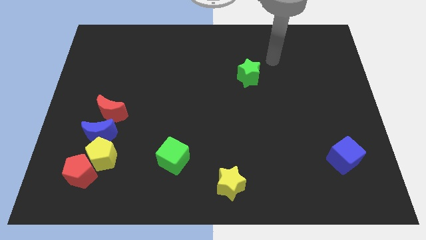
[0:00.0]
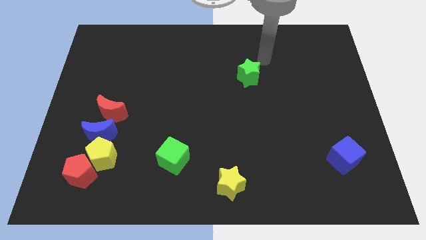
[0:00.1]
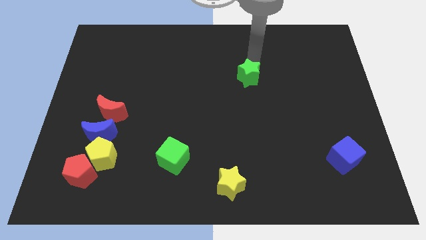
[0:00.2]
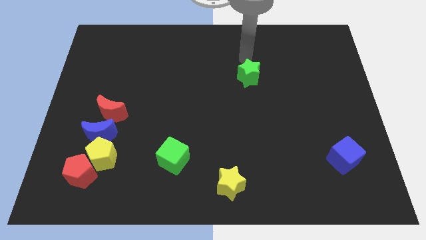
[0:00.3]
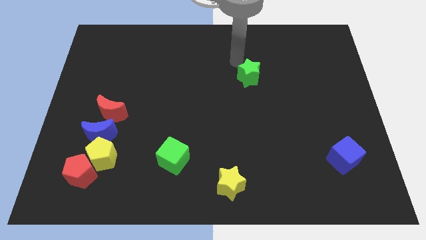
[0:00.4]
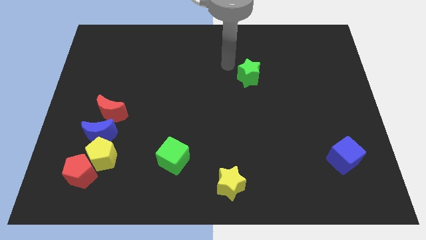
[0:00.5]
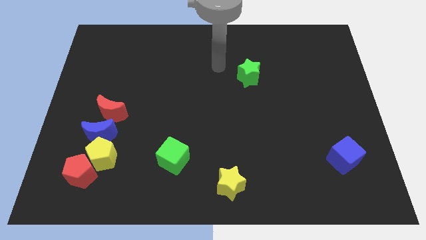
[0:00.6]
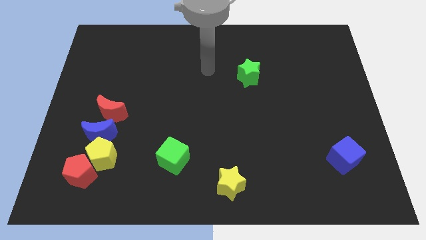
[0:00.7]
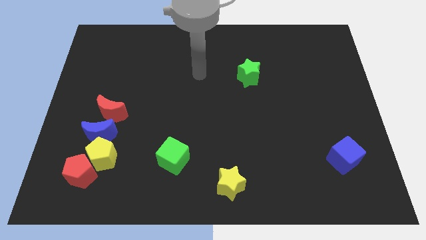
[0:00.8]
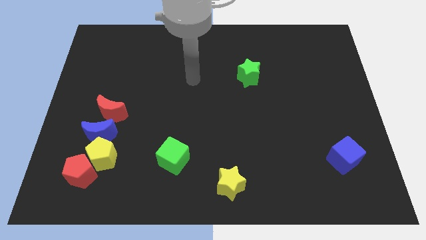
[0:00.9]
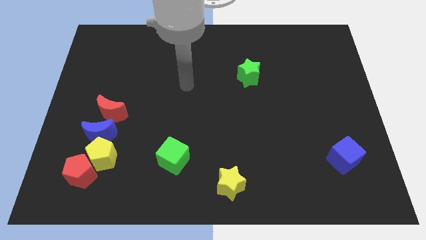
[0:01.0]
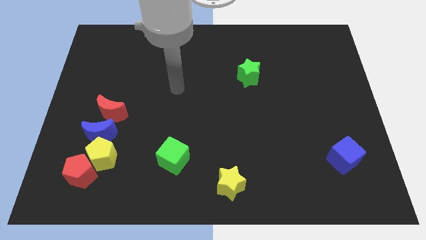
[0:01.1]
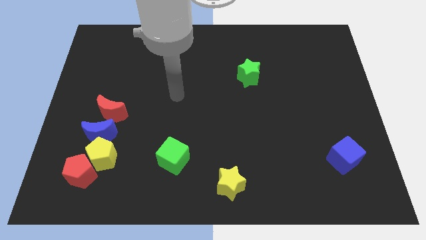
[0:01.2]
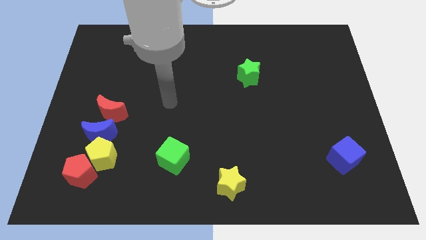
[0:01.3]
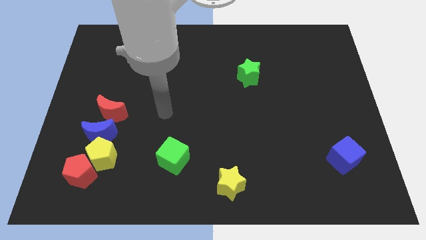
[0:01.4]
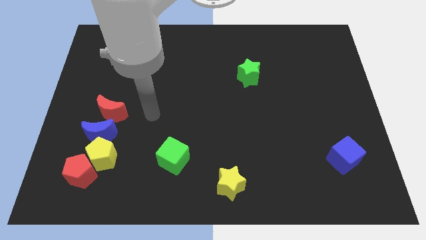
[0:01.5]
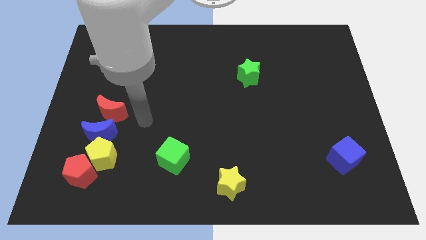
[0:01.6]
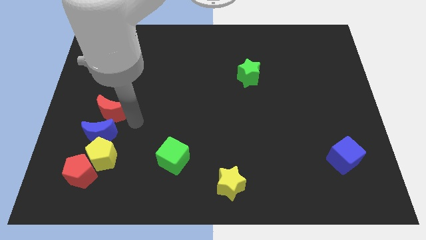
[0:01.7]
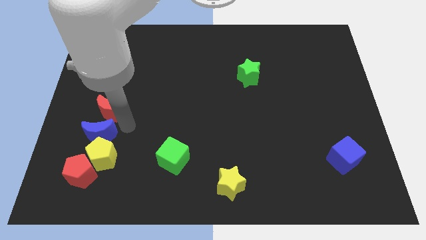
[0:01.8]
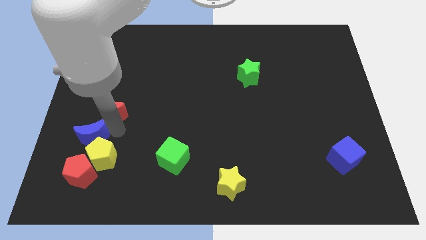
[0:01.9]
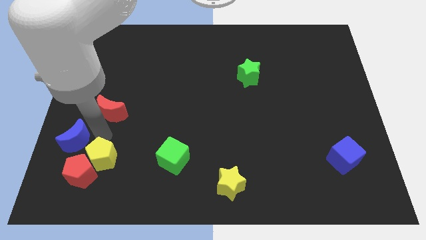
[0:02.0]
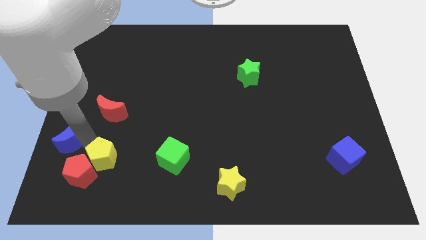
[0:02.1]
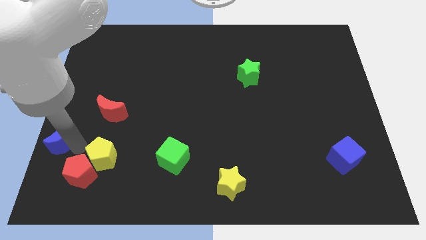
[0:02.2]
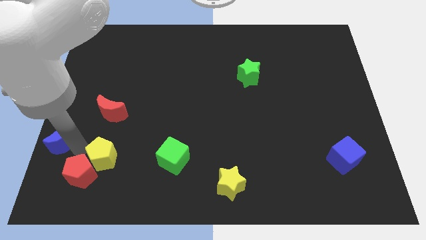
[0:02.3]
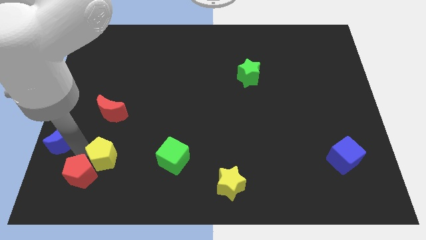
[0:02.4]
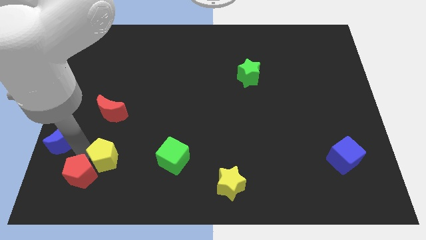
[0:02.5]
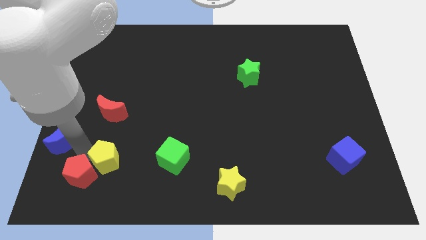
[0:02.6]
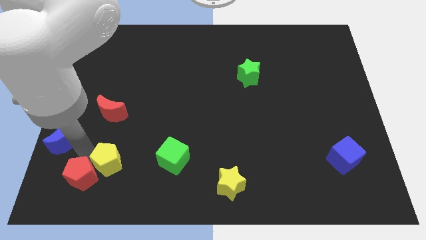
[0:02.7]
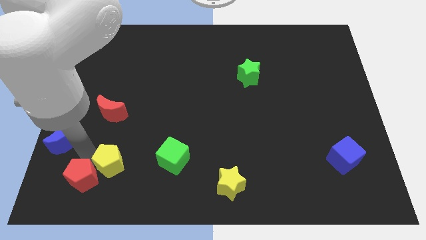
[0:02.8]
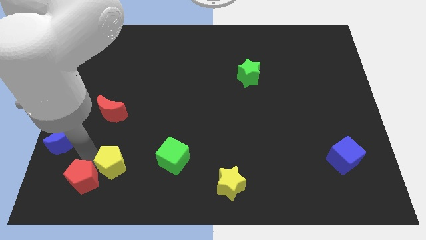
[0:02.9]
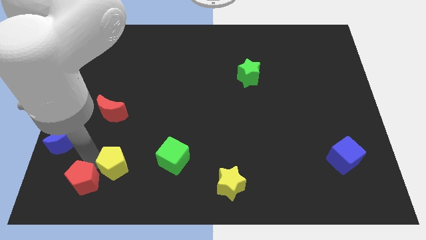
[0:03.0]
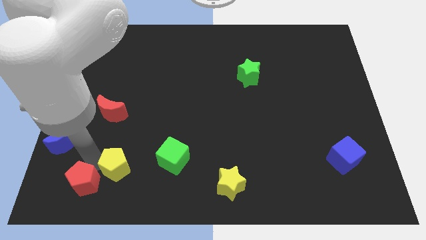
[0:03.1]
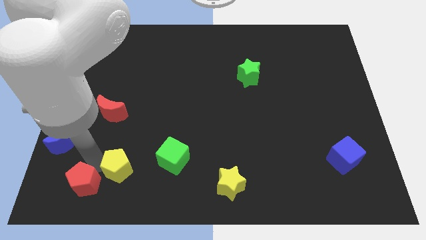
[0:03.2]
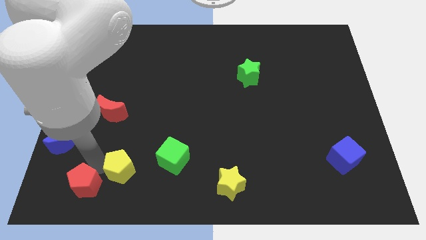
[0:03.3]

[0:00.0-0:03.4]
separate the yellow pentagon from the red pentagon and blue moon

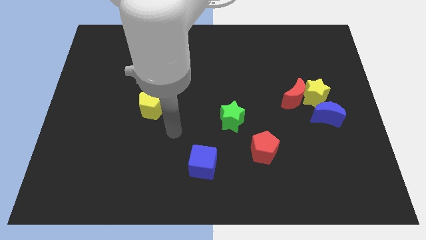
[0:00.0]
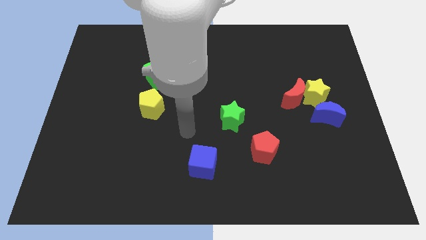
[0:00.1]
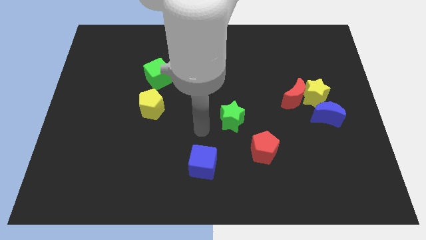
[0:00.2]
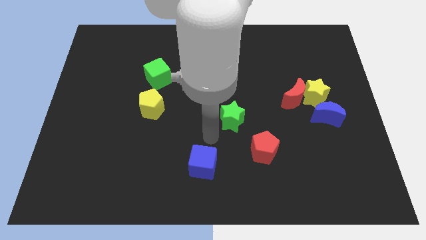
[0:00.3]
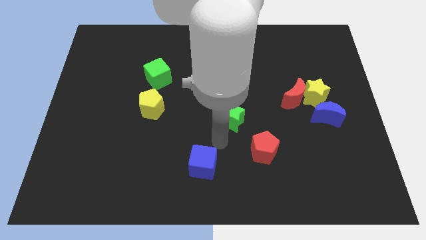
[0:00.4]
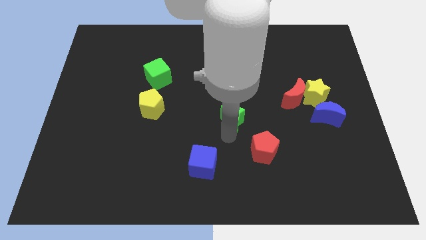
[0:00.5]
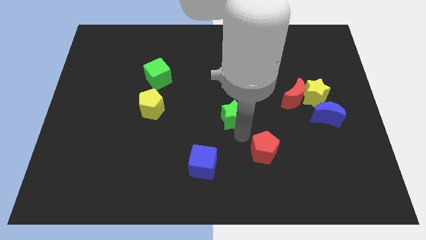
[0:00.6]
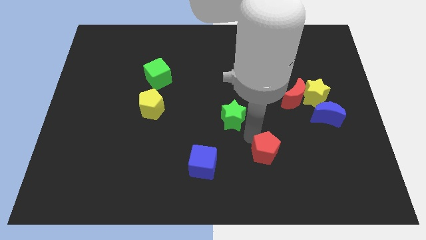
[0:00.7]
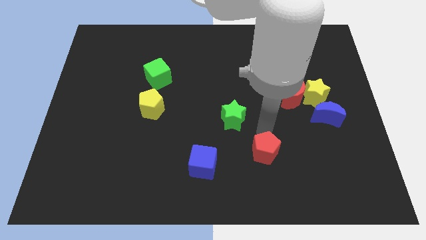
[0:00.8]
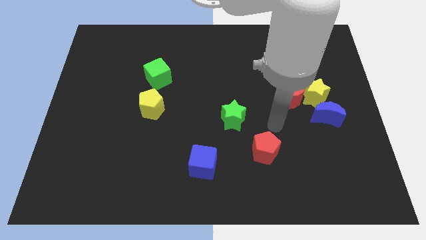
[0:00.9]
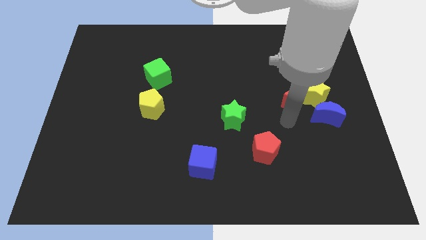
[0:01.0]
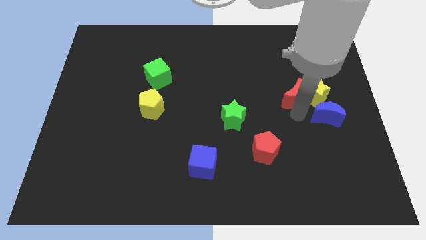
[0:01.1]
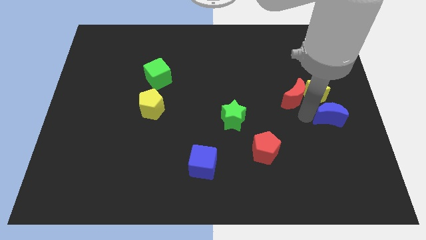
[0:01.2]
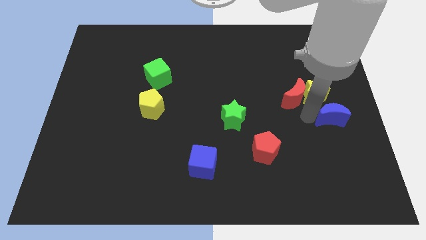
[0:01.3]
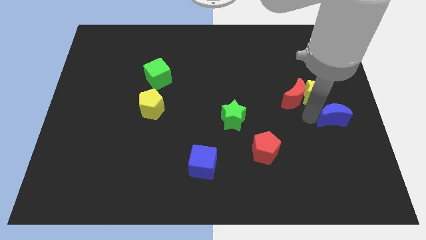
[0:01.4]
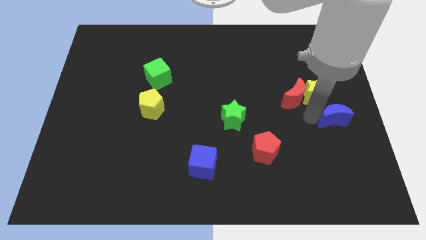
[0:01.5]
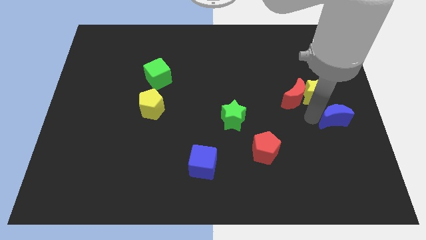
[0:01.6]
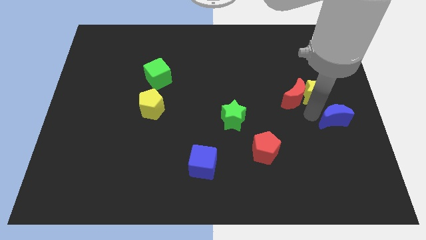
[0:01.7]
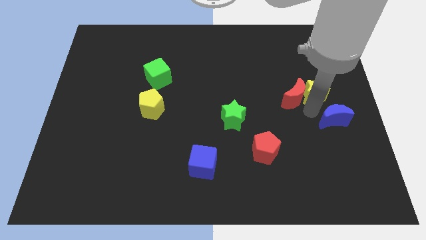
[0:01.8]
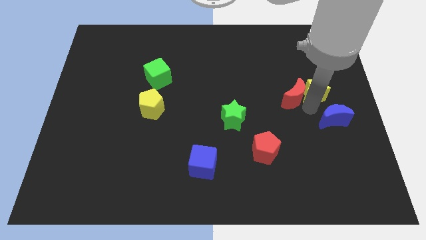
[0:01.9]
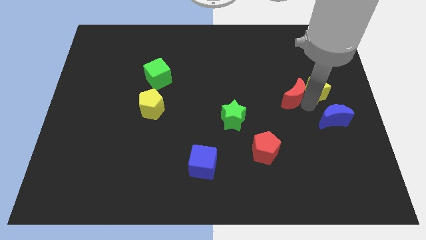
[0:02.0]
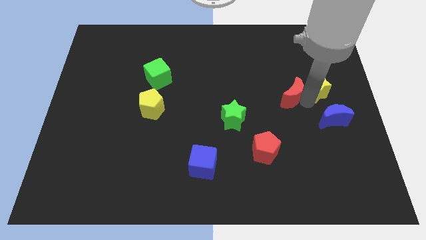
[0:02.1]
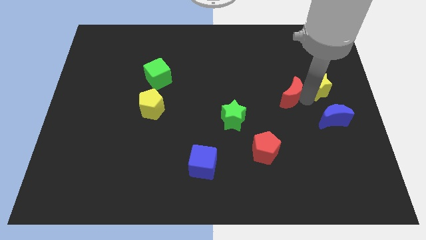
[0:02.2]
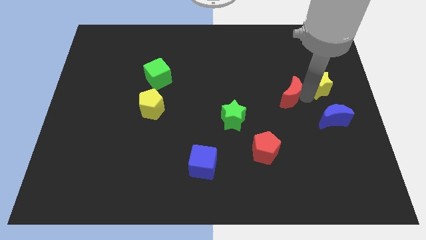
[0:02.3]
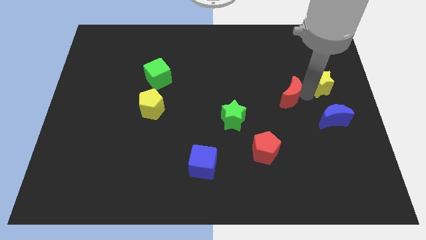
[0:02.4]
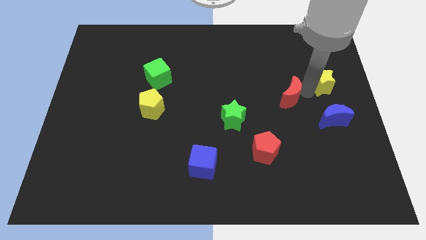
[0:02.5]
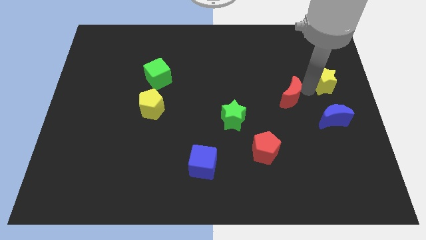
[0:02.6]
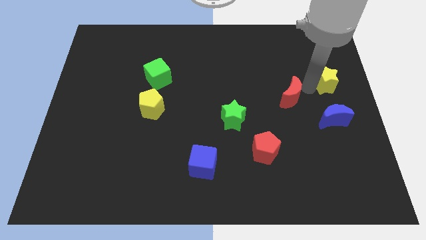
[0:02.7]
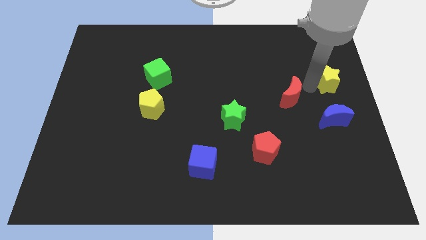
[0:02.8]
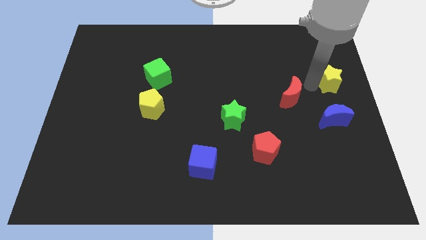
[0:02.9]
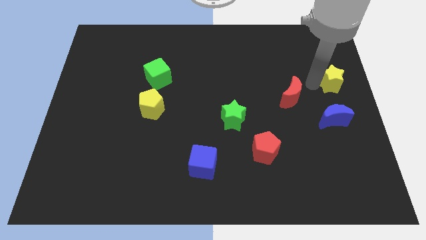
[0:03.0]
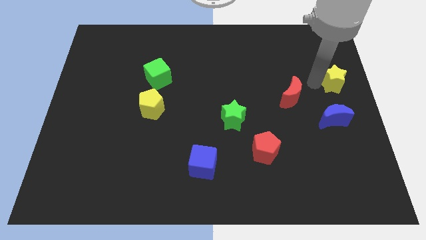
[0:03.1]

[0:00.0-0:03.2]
move the yellow star away from the red moon and blue moon

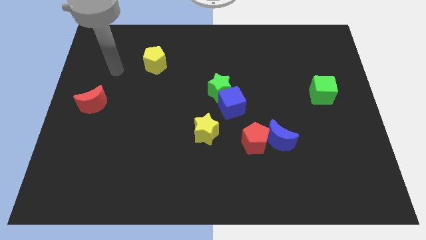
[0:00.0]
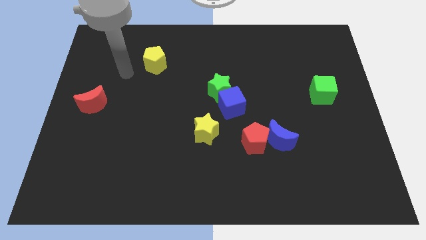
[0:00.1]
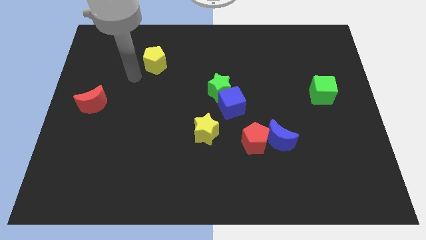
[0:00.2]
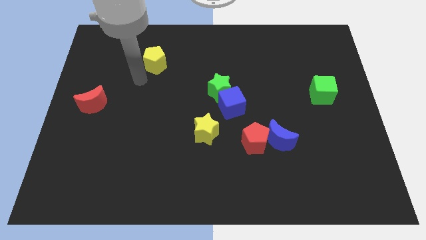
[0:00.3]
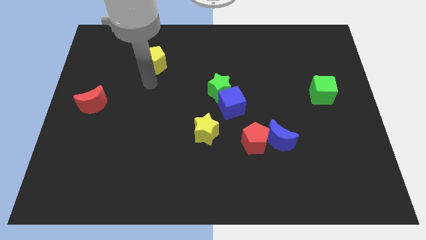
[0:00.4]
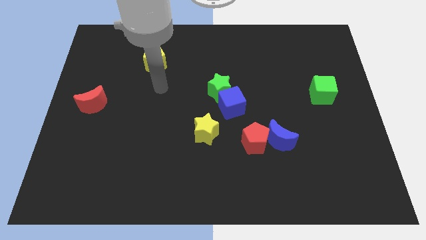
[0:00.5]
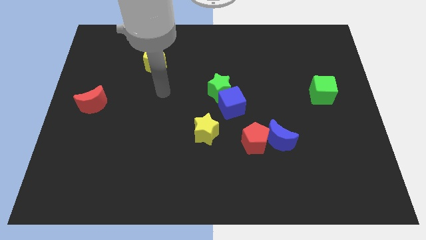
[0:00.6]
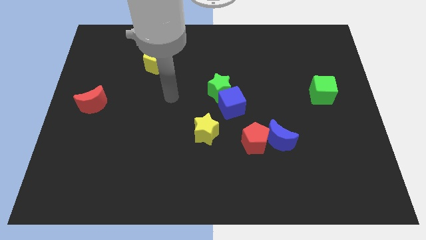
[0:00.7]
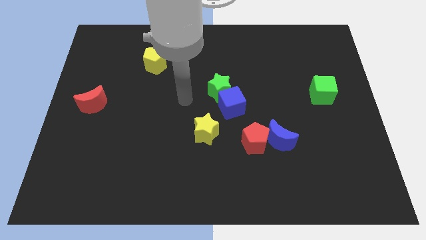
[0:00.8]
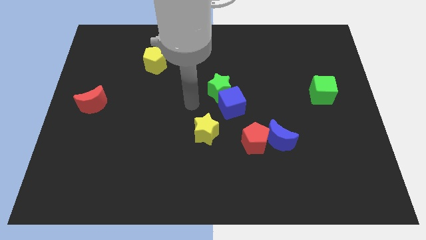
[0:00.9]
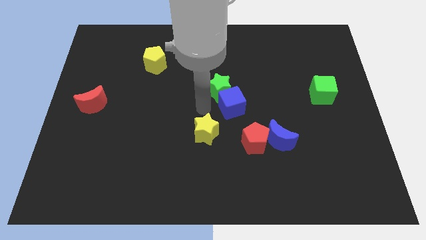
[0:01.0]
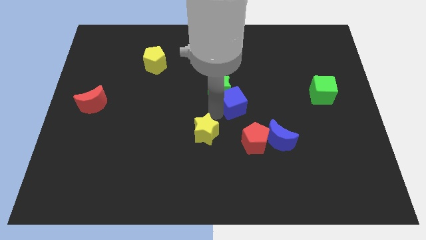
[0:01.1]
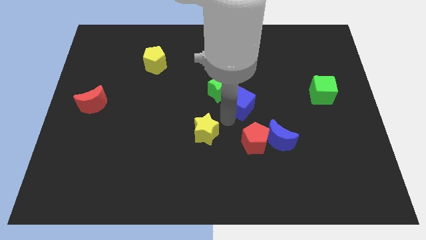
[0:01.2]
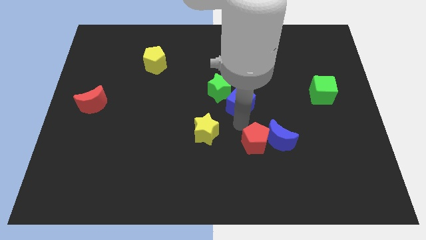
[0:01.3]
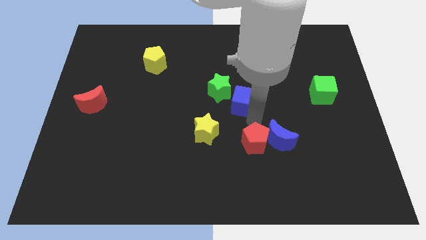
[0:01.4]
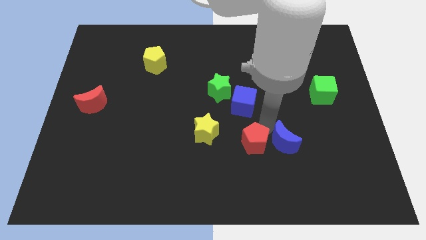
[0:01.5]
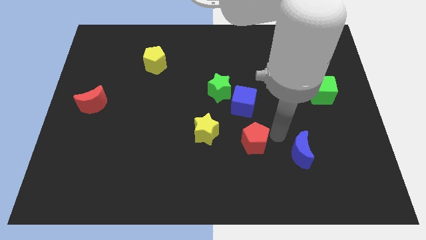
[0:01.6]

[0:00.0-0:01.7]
separate the red pentagon from the blue moon

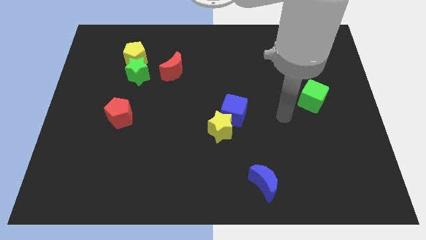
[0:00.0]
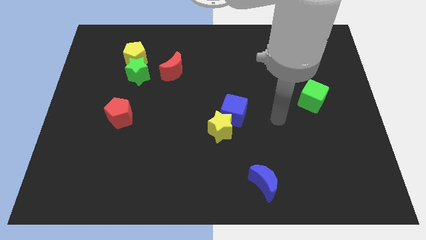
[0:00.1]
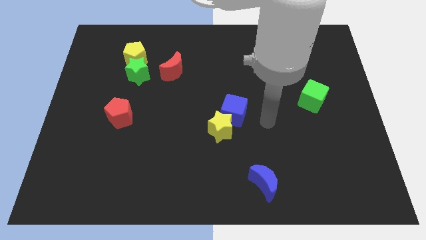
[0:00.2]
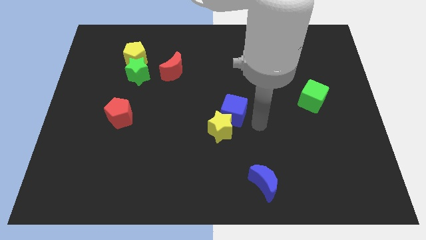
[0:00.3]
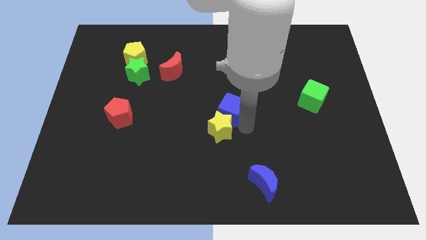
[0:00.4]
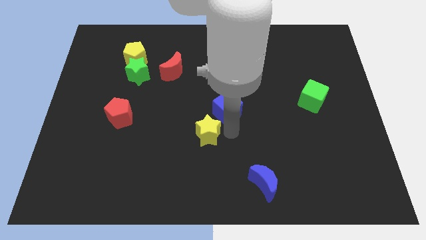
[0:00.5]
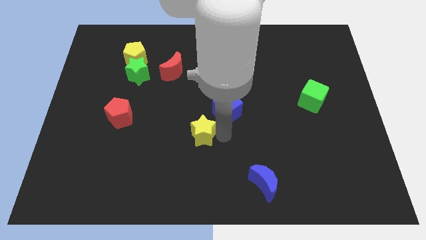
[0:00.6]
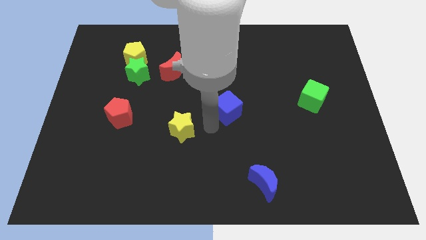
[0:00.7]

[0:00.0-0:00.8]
separate the blue cube from the yellow star
